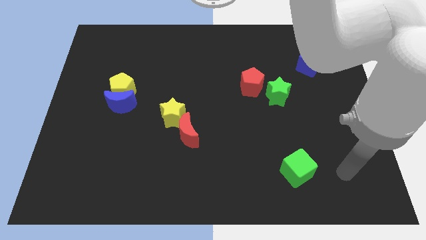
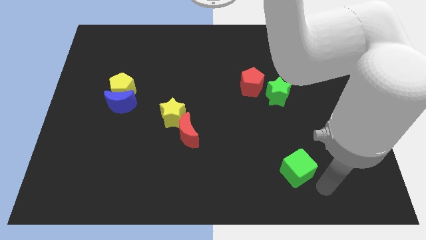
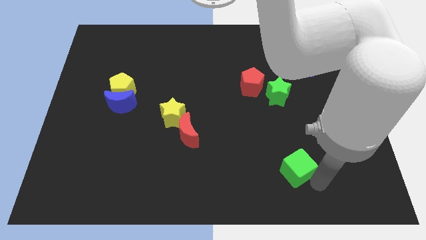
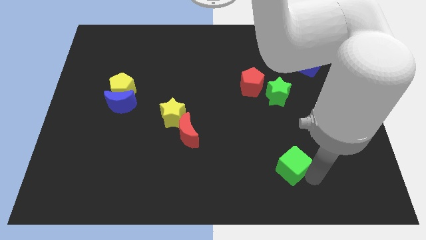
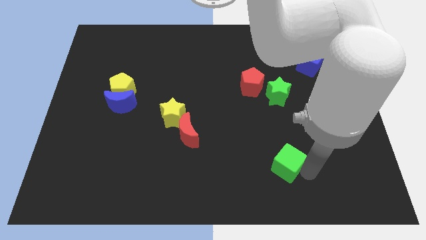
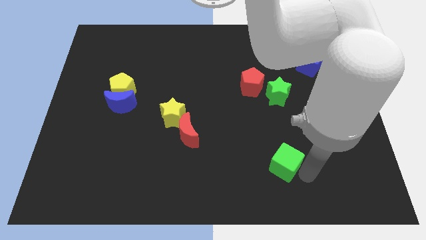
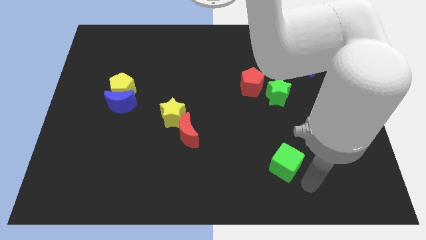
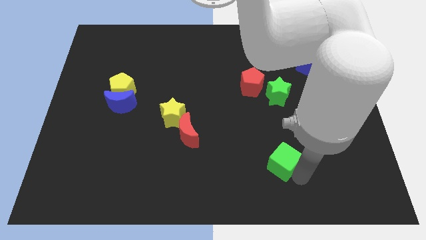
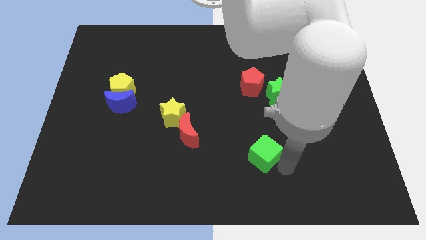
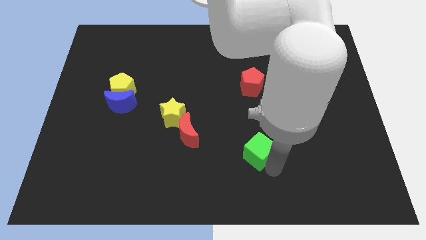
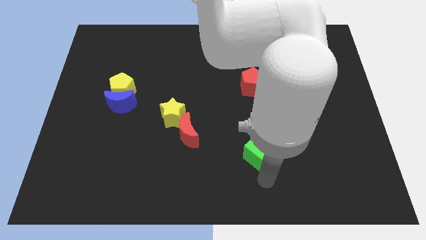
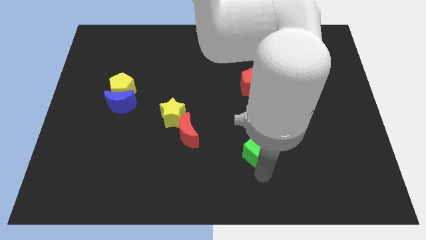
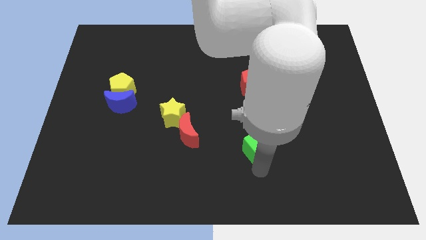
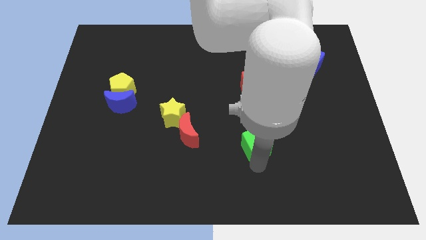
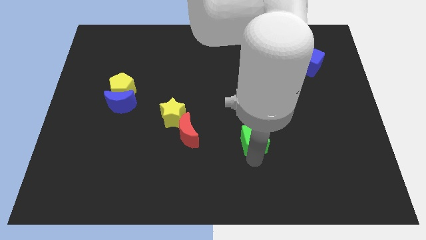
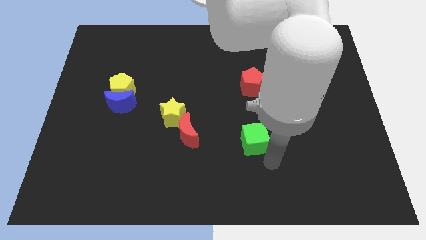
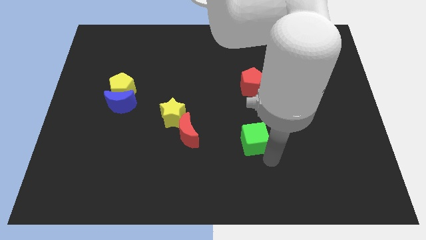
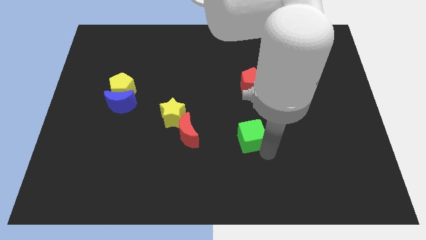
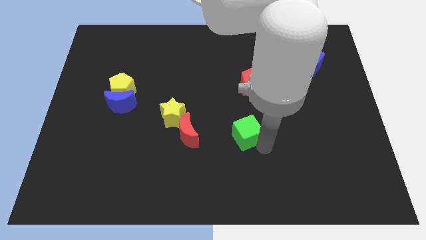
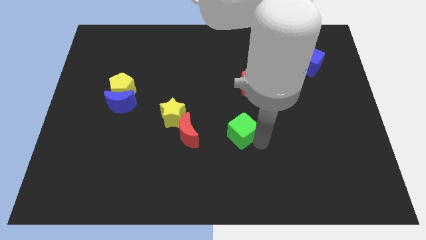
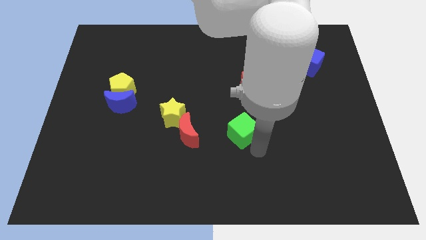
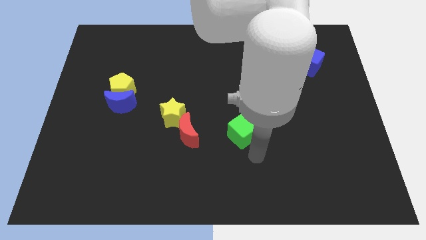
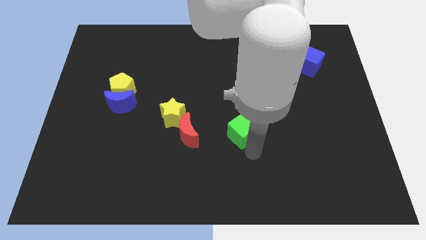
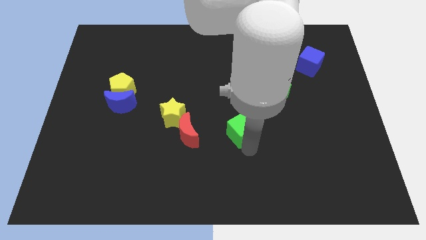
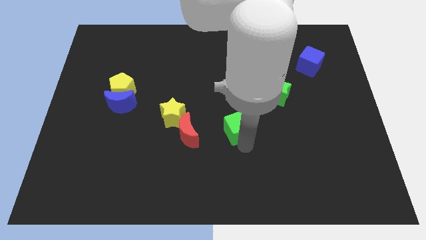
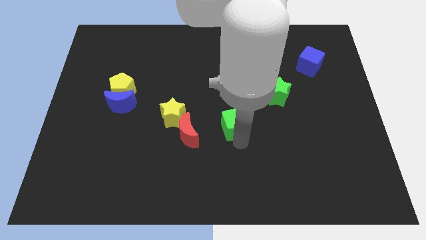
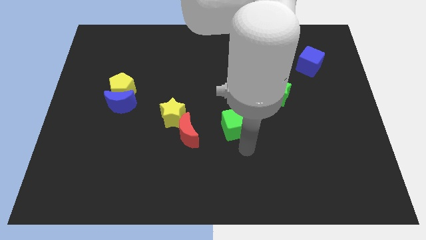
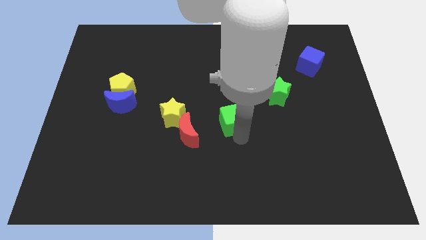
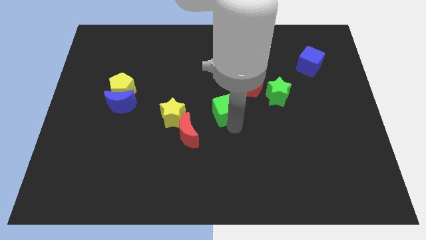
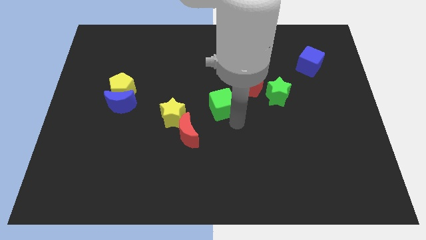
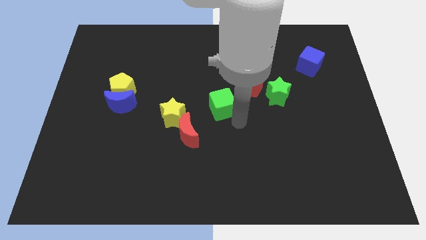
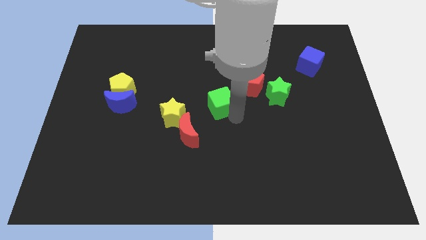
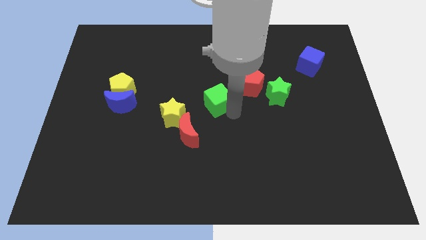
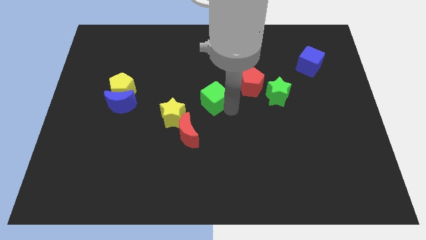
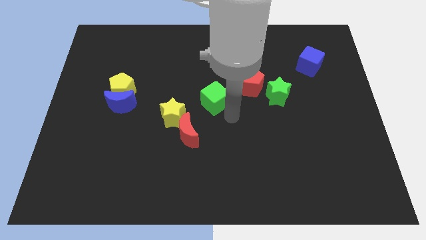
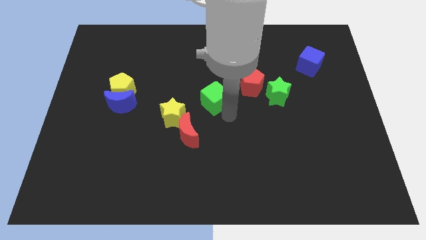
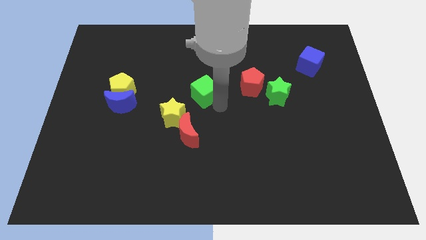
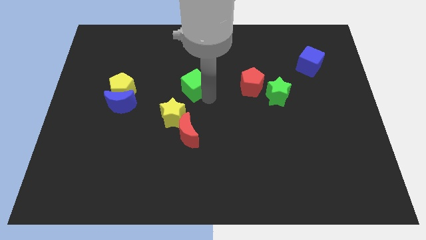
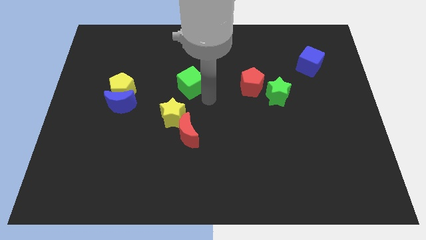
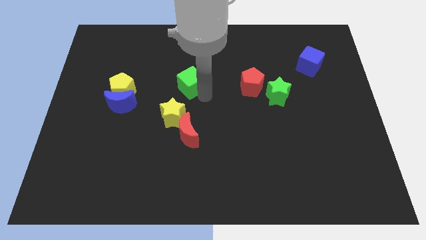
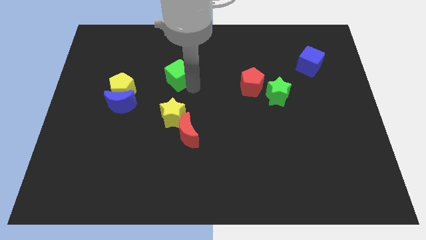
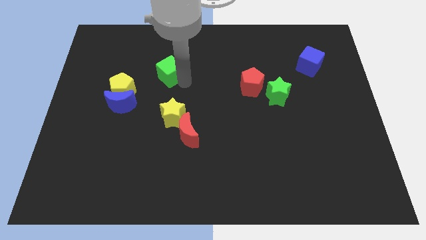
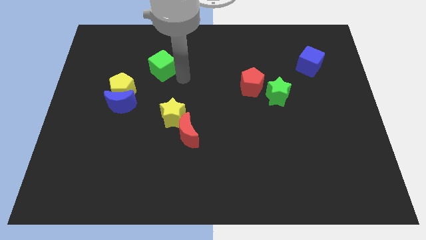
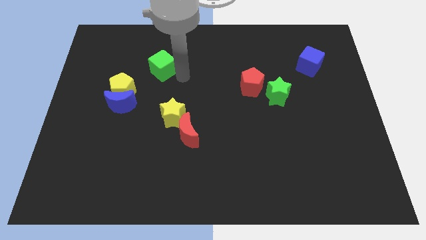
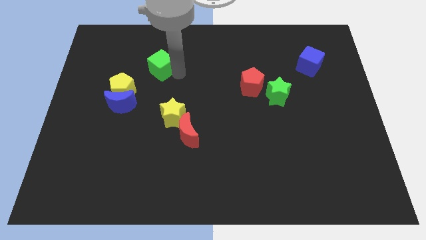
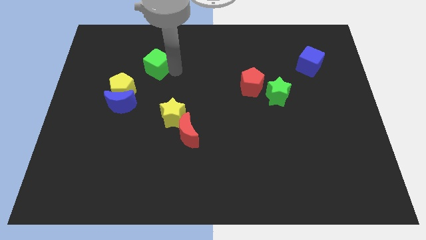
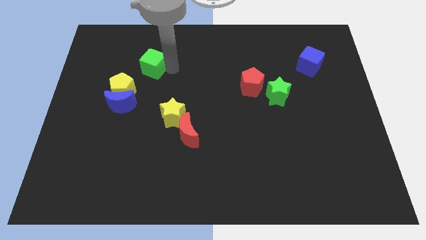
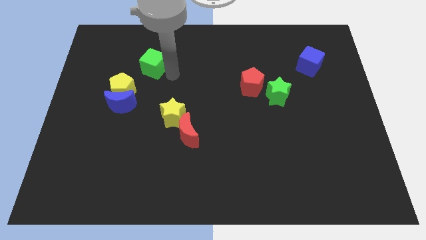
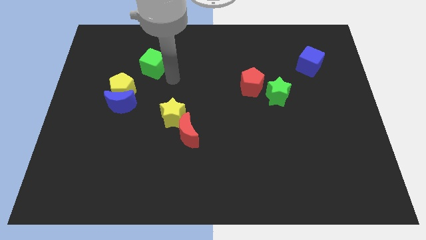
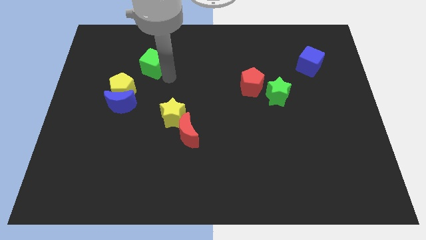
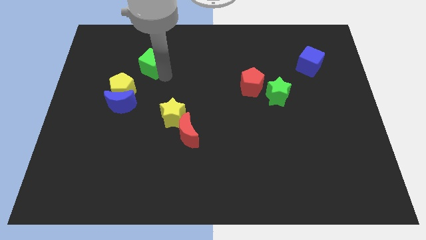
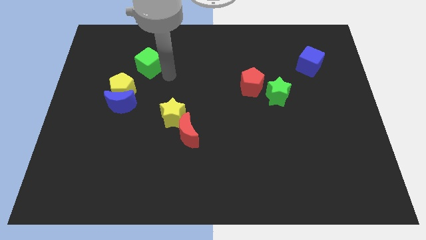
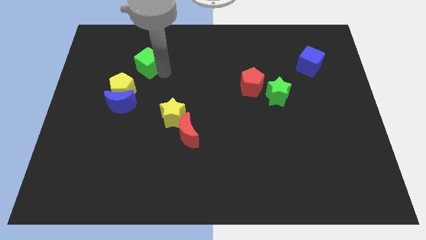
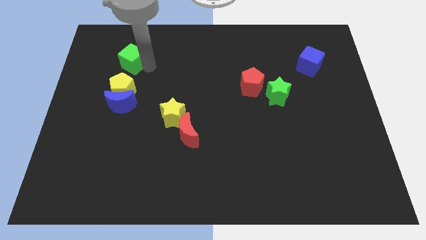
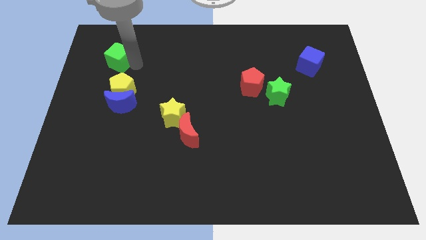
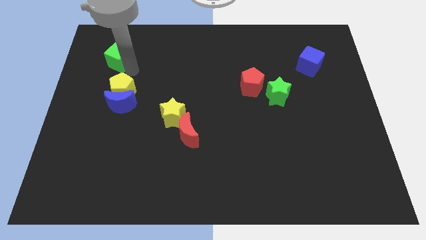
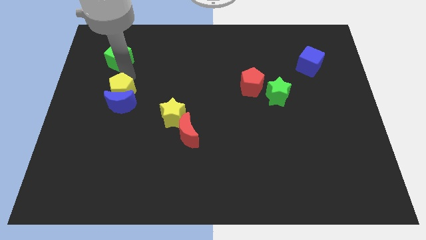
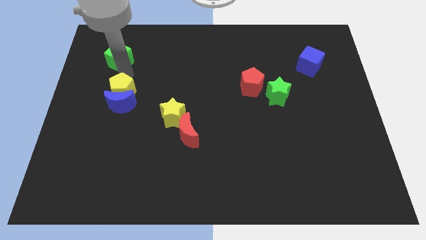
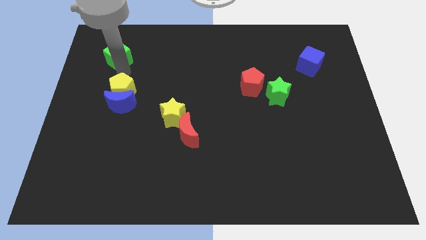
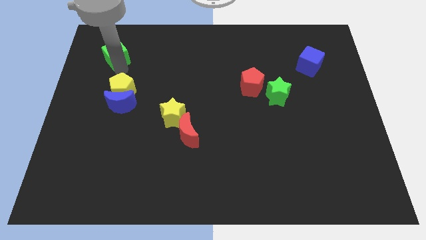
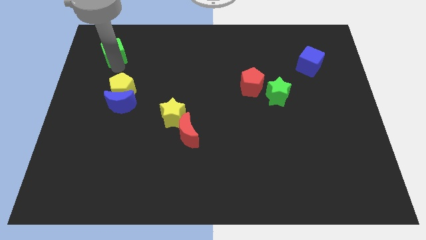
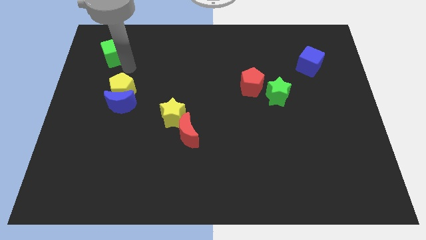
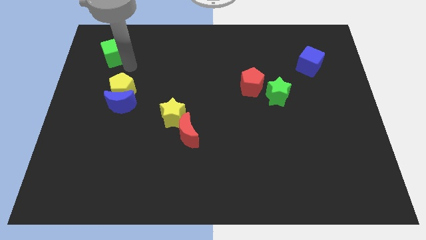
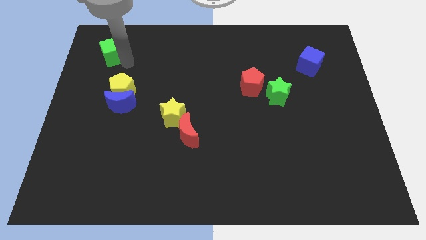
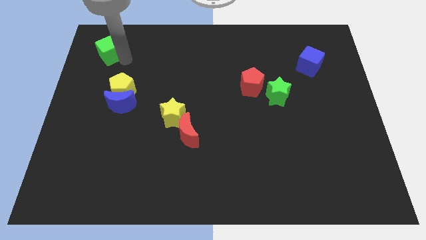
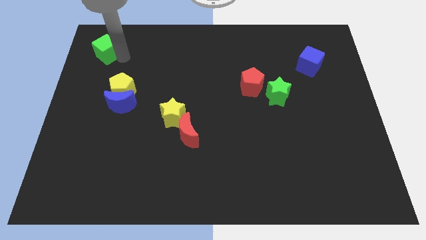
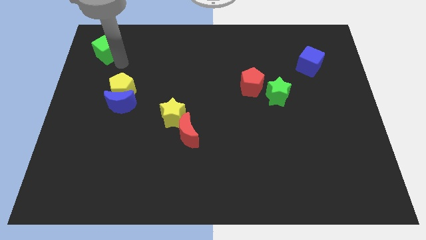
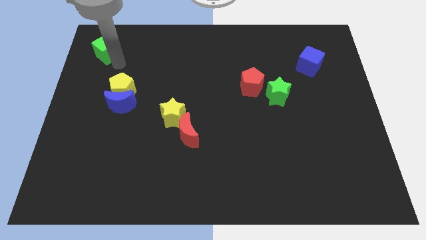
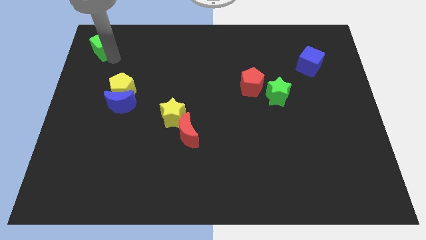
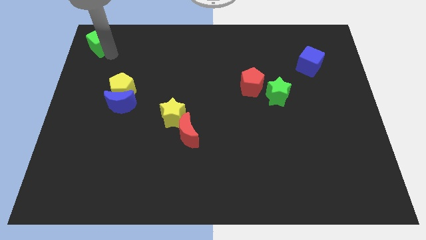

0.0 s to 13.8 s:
push the green cube to the top left
